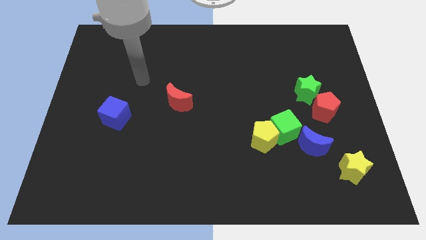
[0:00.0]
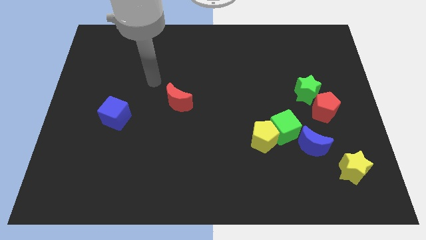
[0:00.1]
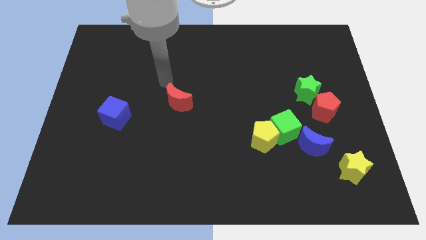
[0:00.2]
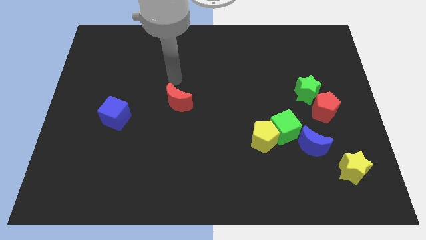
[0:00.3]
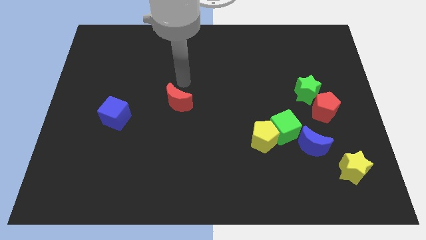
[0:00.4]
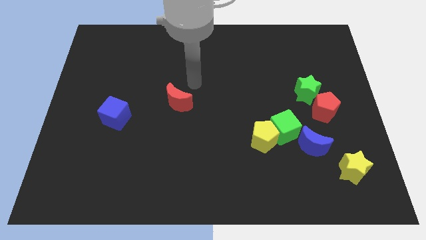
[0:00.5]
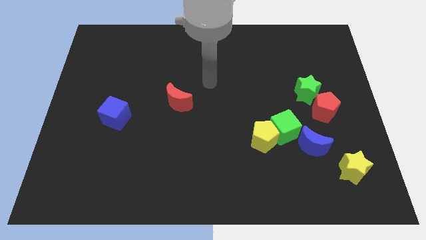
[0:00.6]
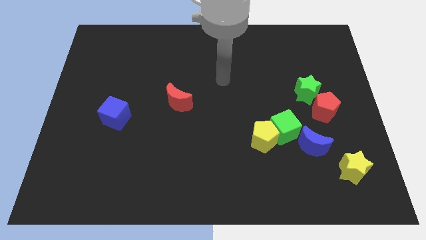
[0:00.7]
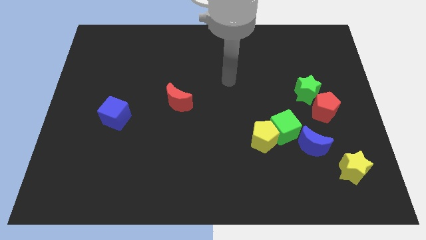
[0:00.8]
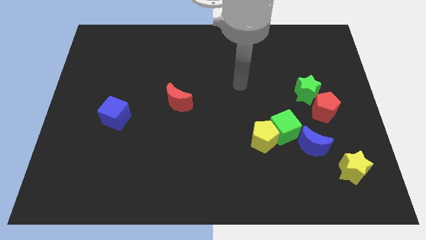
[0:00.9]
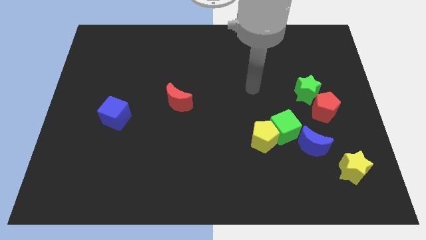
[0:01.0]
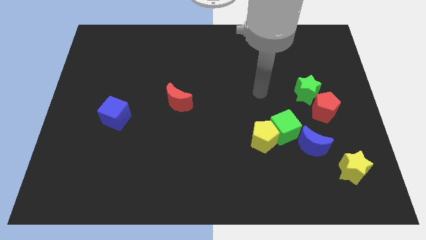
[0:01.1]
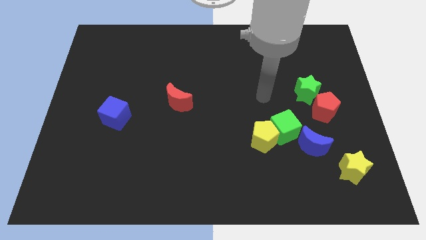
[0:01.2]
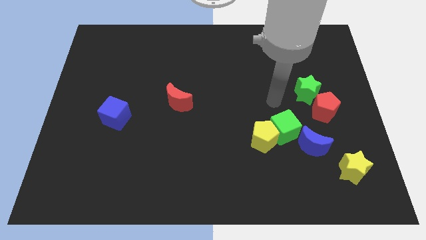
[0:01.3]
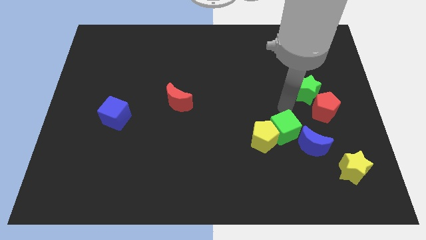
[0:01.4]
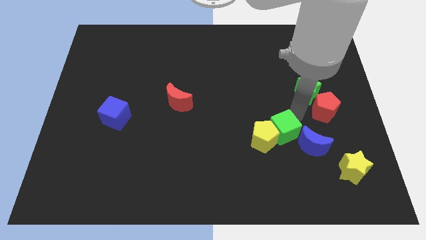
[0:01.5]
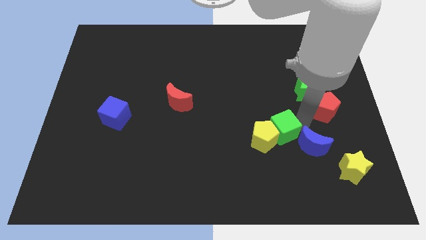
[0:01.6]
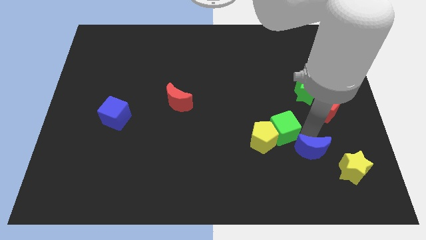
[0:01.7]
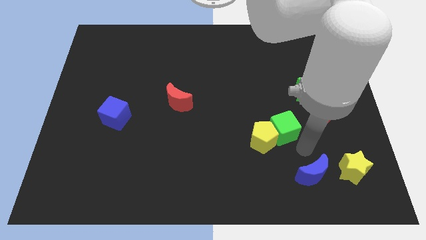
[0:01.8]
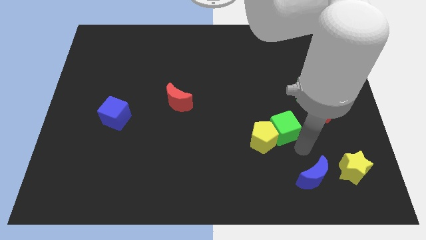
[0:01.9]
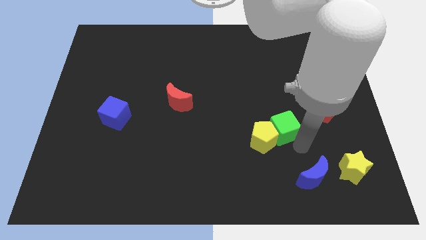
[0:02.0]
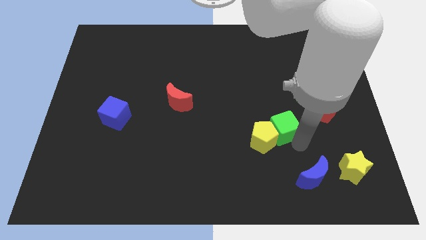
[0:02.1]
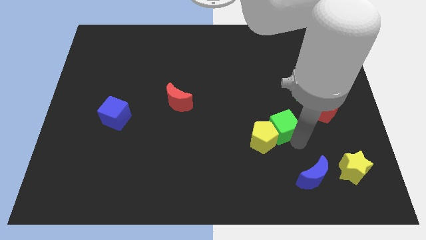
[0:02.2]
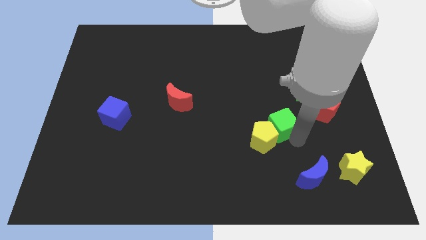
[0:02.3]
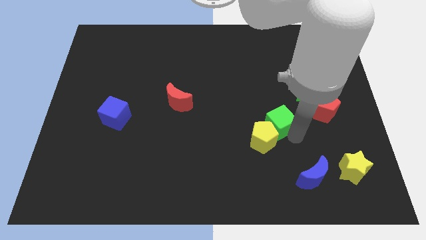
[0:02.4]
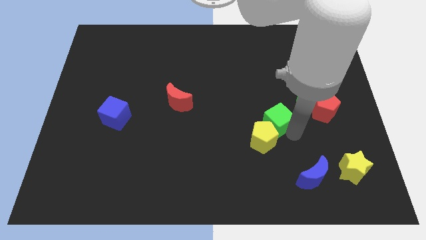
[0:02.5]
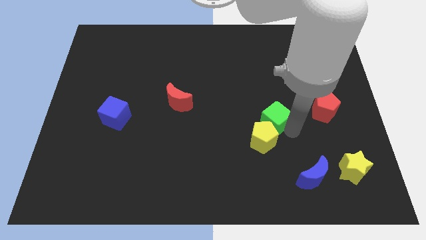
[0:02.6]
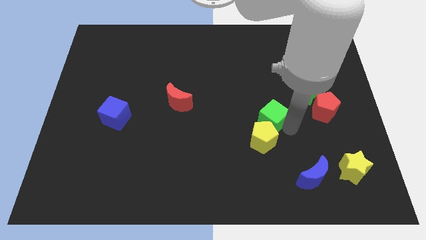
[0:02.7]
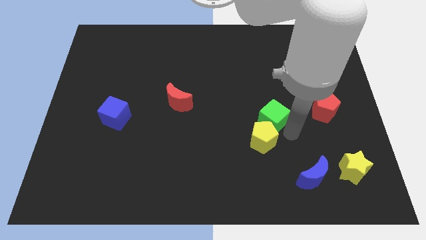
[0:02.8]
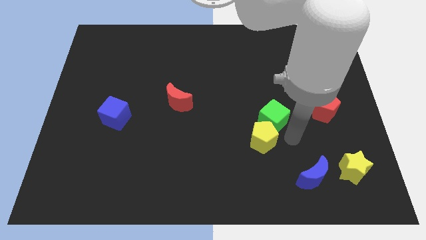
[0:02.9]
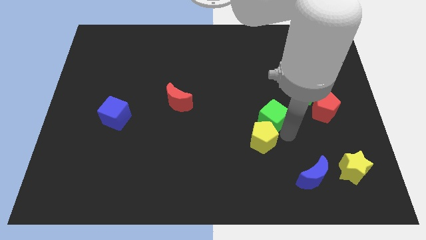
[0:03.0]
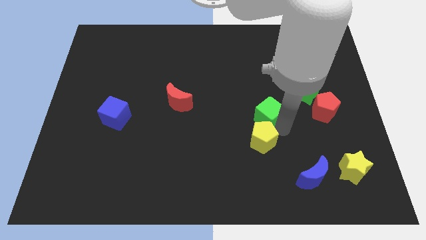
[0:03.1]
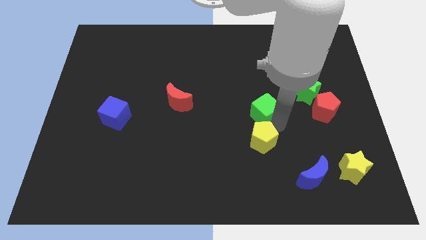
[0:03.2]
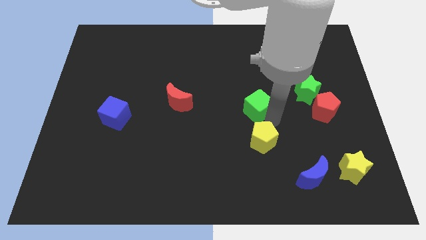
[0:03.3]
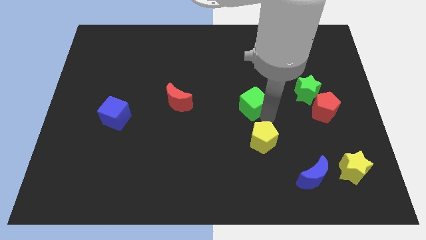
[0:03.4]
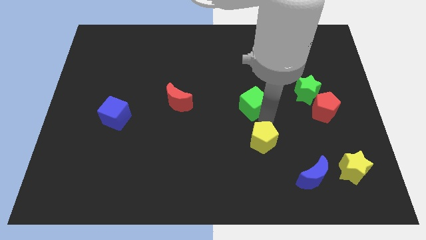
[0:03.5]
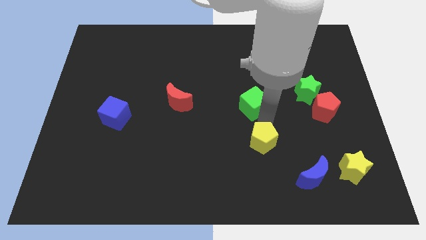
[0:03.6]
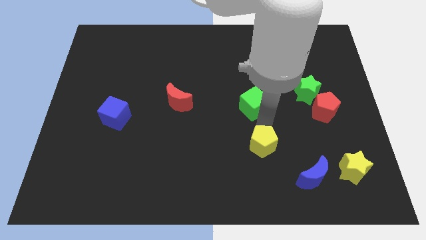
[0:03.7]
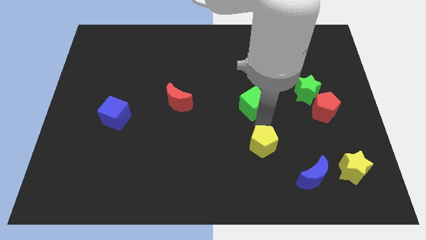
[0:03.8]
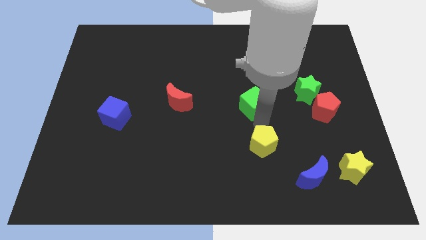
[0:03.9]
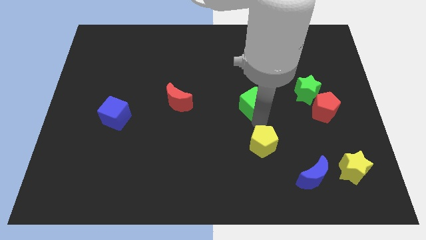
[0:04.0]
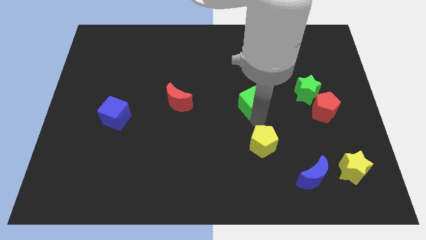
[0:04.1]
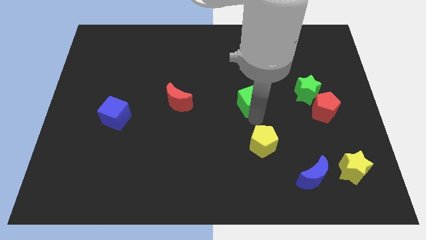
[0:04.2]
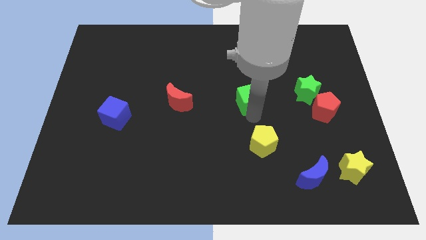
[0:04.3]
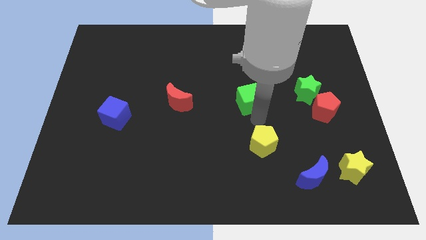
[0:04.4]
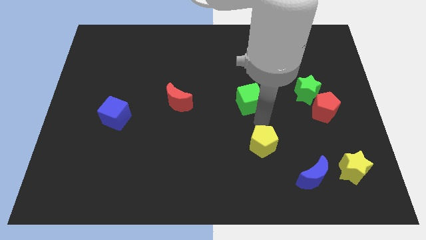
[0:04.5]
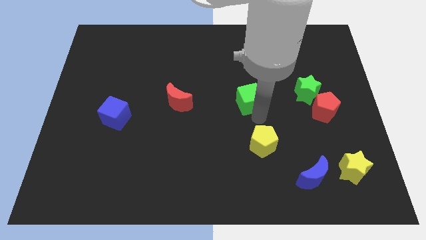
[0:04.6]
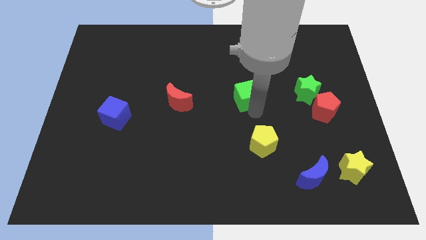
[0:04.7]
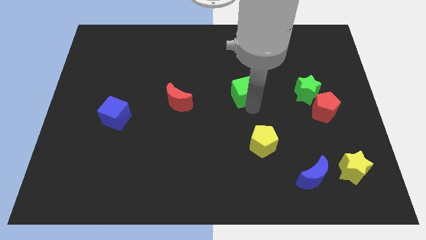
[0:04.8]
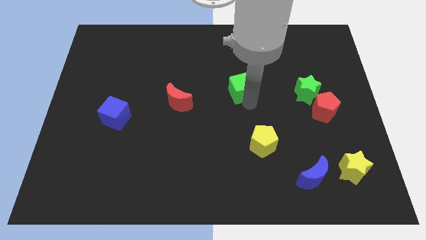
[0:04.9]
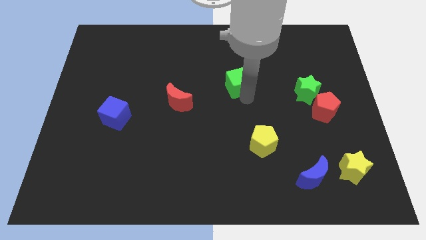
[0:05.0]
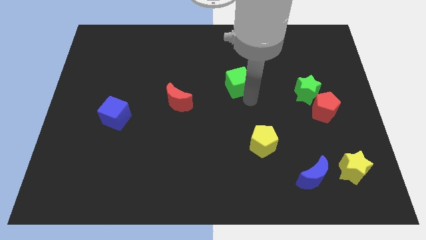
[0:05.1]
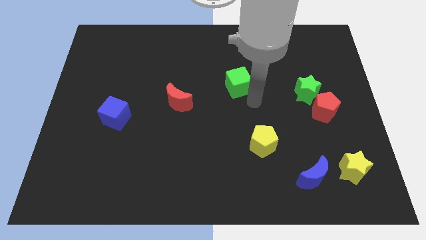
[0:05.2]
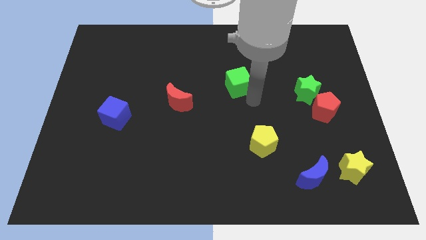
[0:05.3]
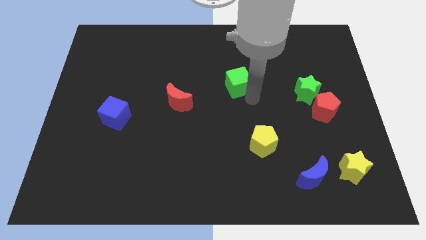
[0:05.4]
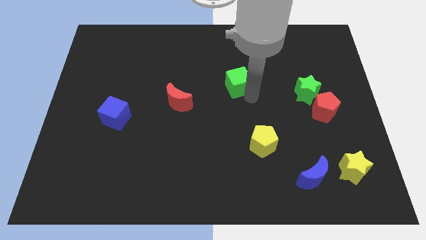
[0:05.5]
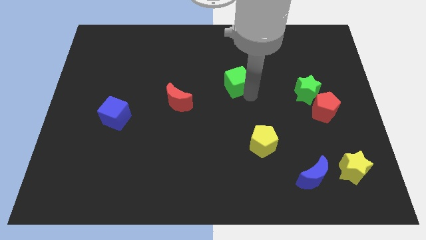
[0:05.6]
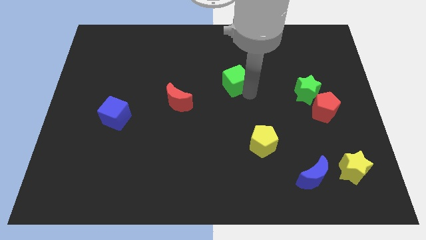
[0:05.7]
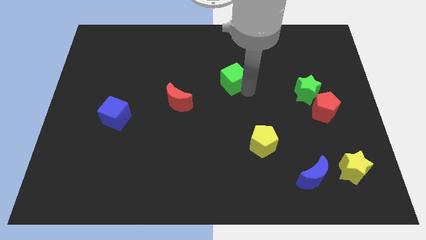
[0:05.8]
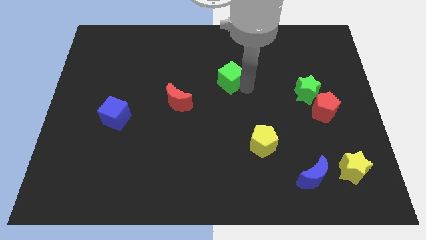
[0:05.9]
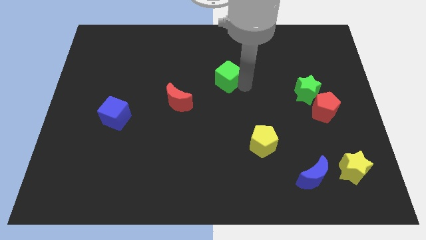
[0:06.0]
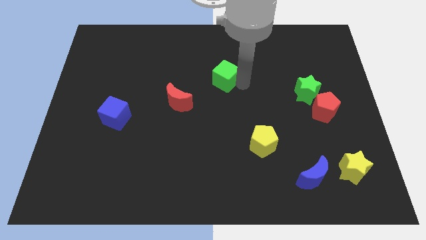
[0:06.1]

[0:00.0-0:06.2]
push the green cube diagonally up and left

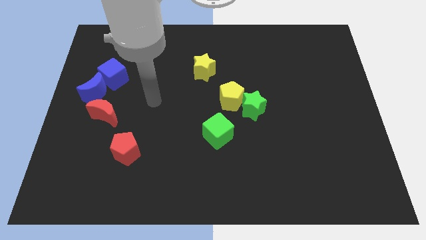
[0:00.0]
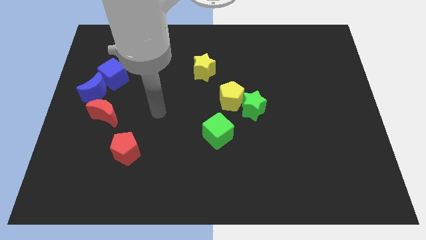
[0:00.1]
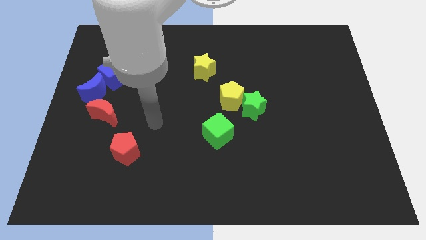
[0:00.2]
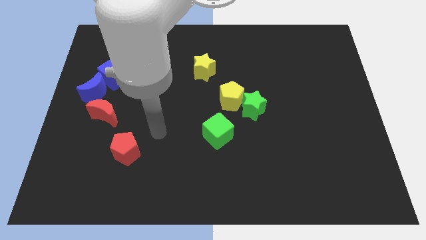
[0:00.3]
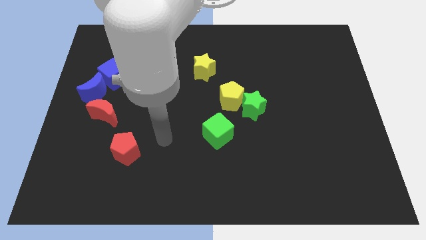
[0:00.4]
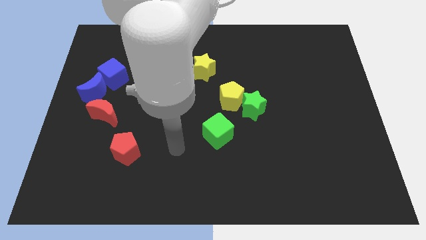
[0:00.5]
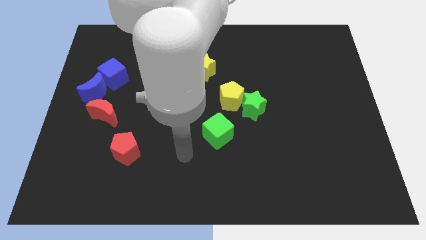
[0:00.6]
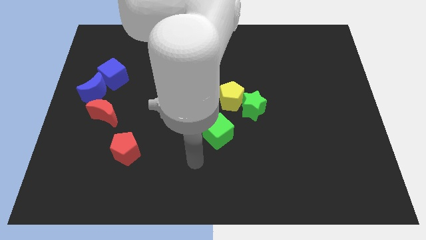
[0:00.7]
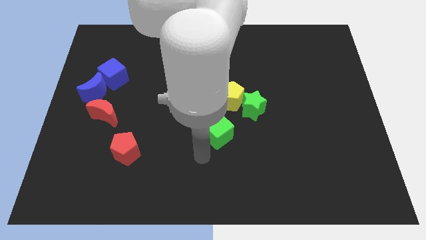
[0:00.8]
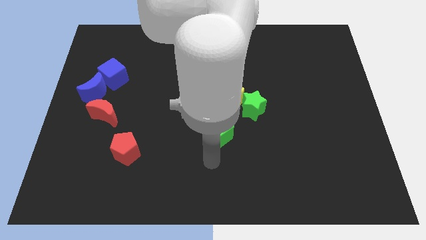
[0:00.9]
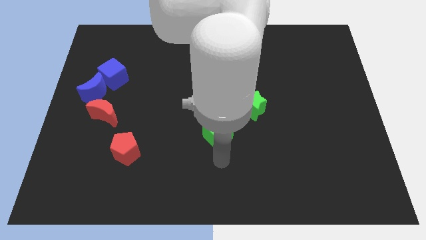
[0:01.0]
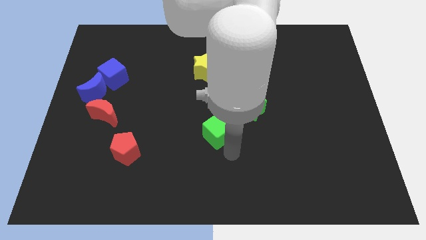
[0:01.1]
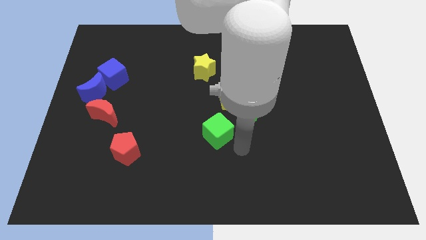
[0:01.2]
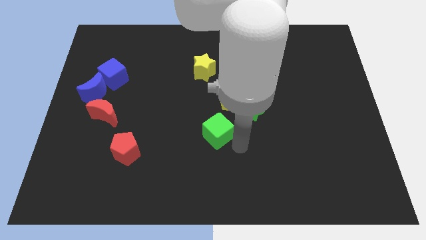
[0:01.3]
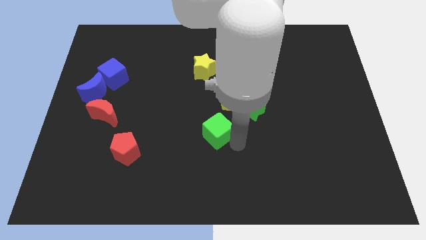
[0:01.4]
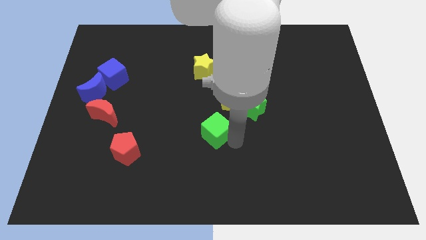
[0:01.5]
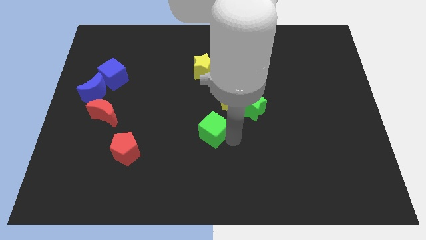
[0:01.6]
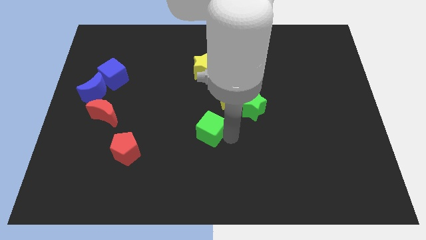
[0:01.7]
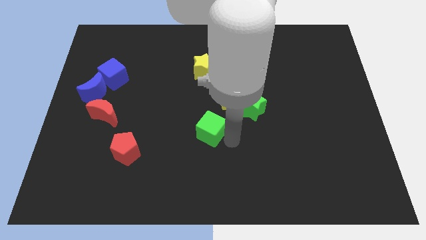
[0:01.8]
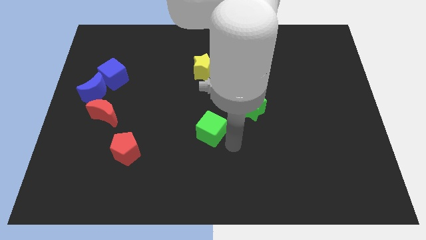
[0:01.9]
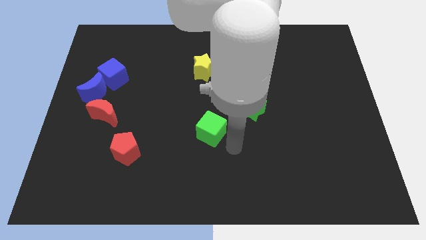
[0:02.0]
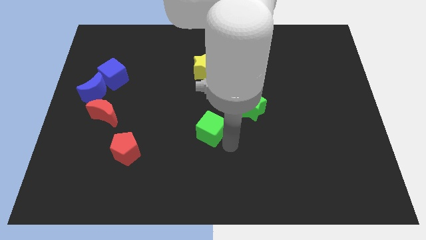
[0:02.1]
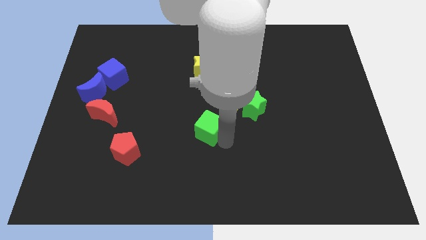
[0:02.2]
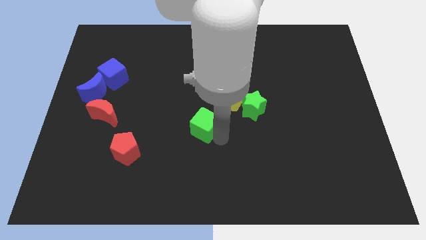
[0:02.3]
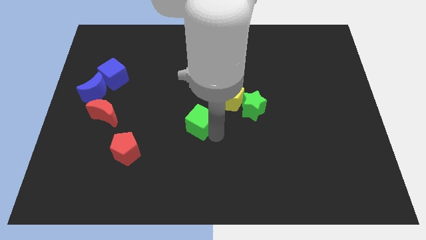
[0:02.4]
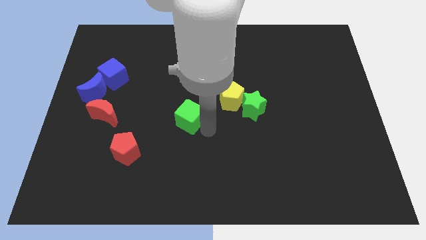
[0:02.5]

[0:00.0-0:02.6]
push the green cube a bit upwards and to the left
